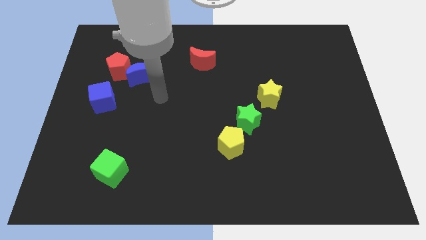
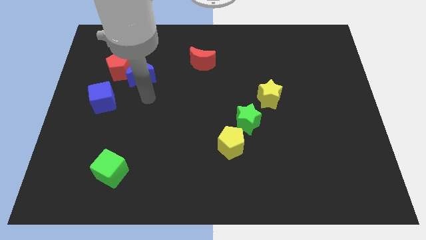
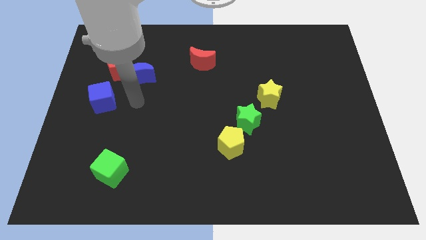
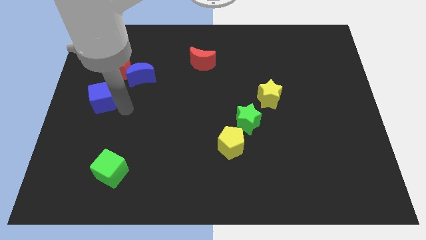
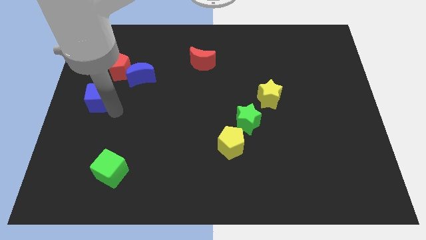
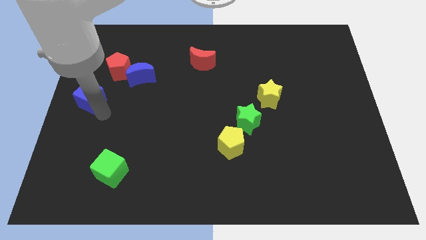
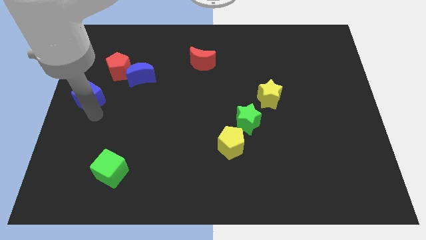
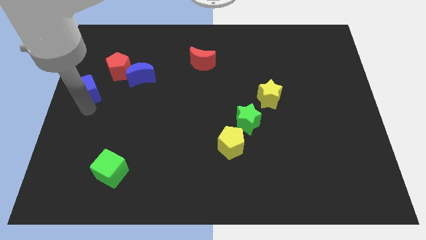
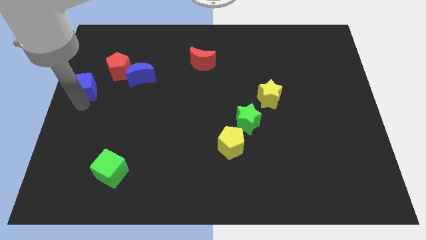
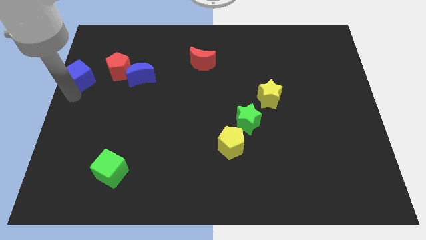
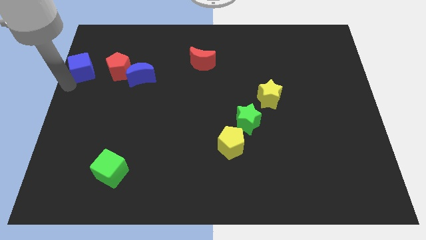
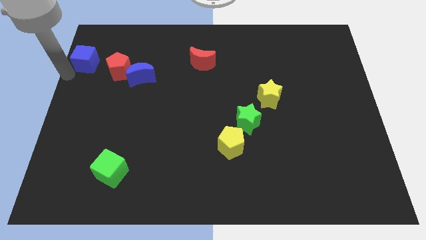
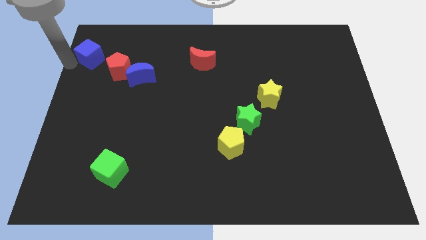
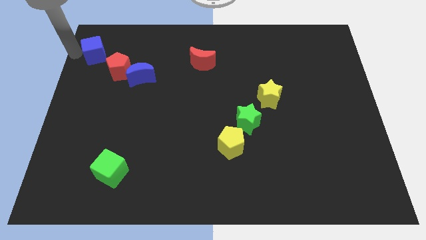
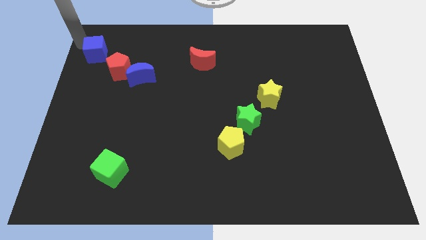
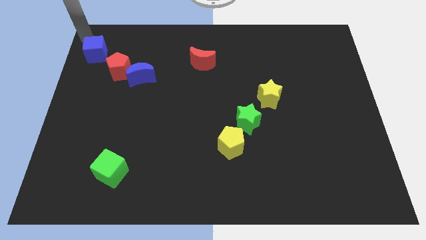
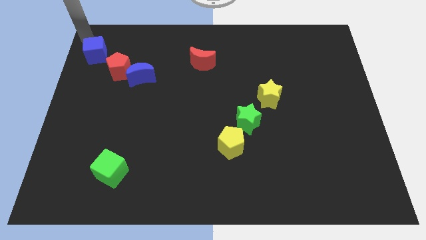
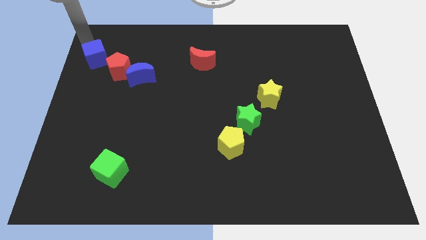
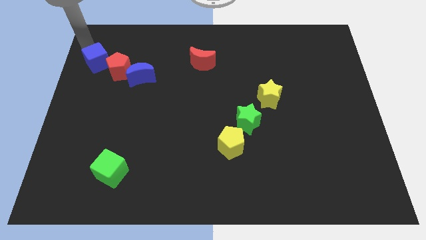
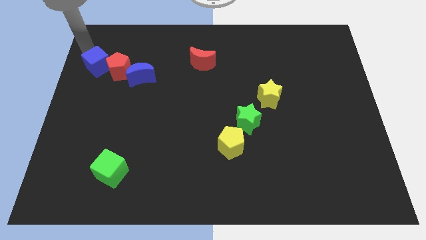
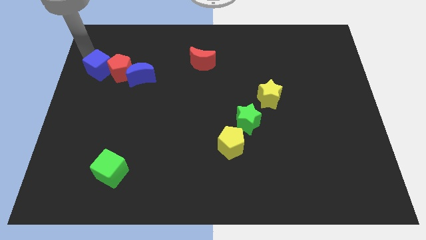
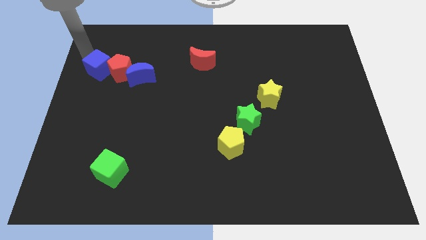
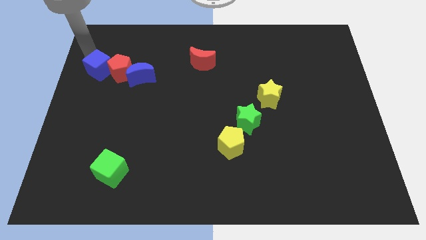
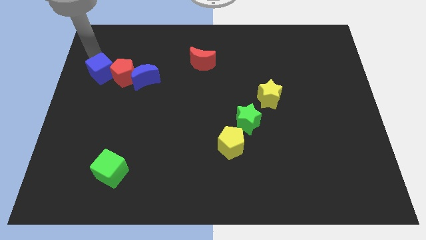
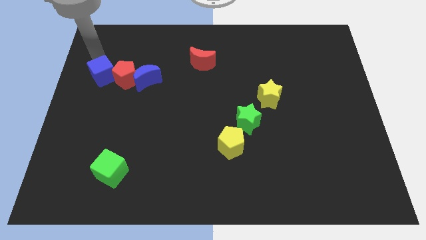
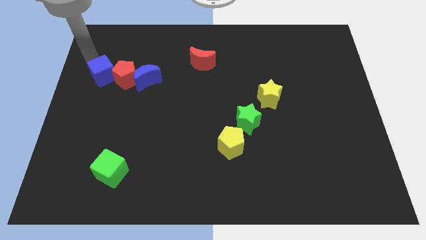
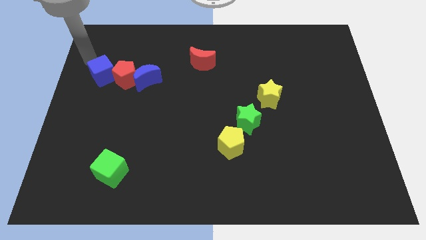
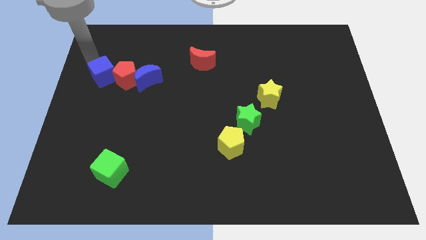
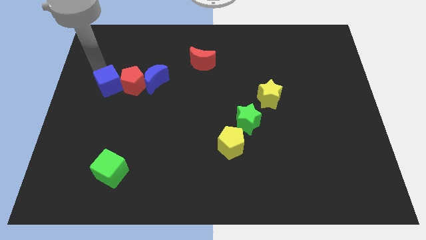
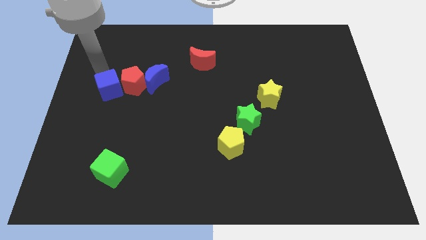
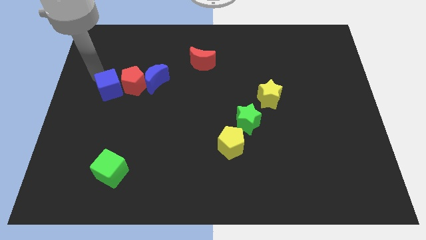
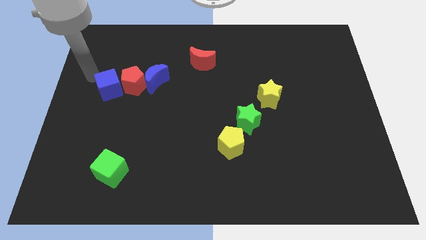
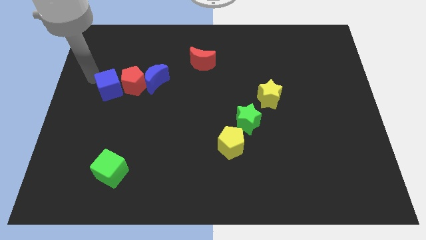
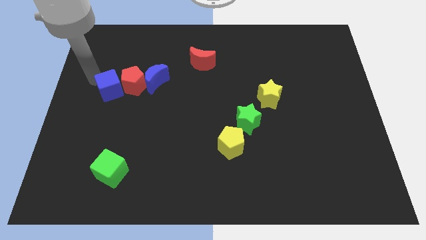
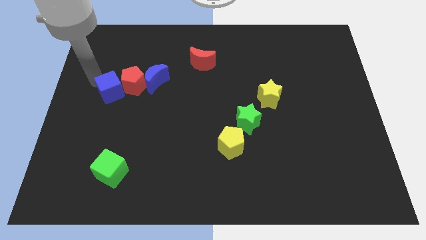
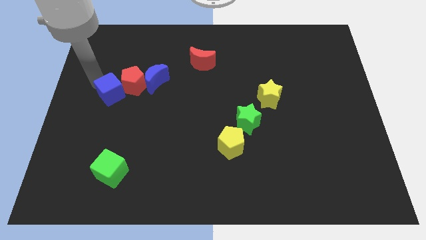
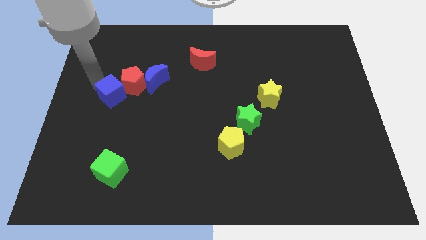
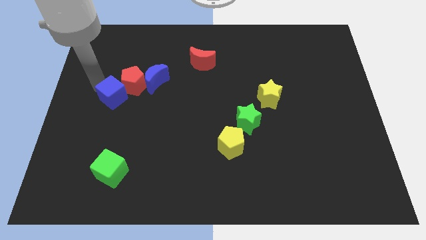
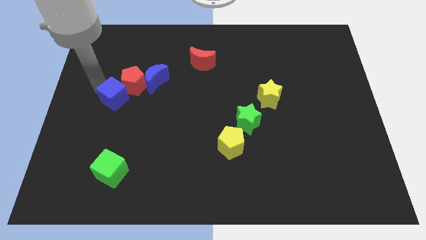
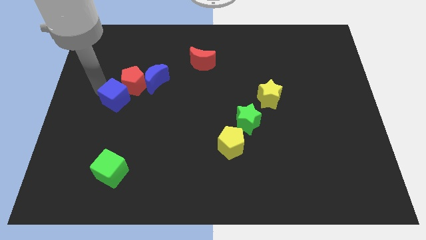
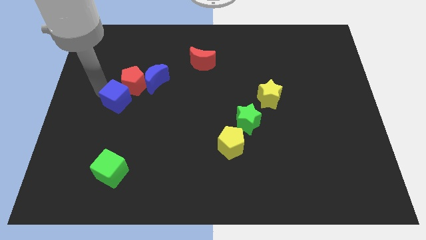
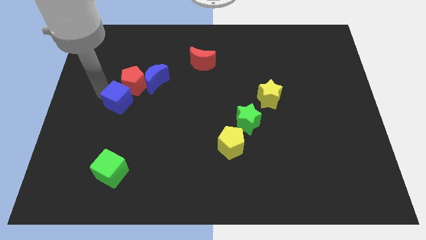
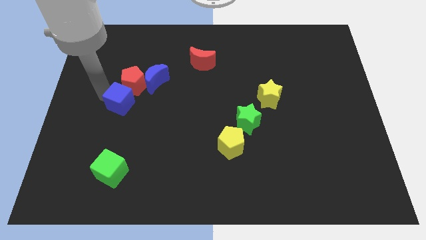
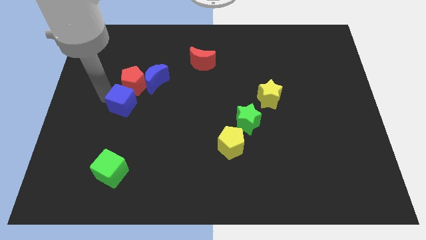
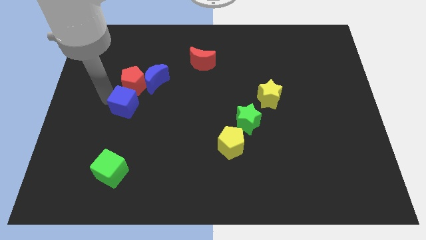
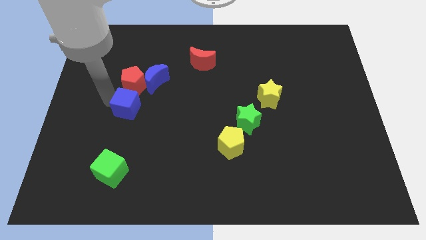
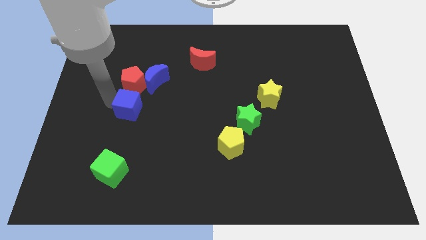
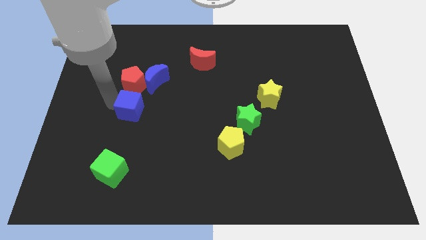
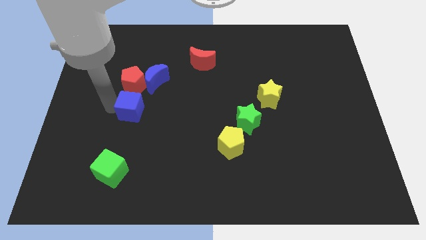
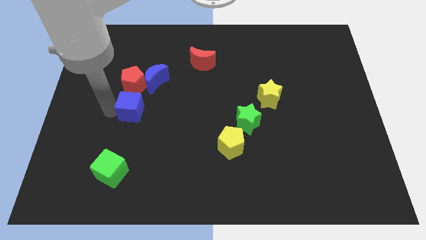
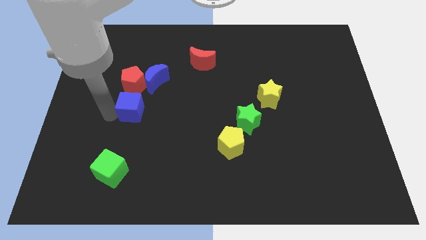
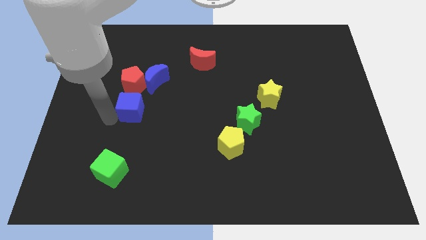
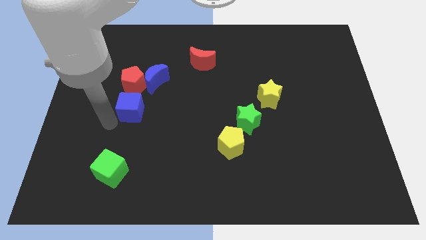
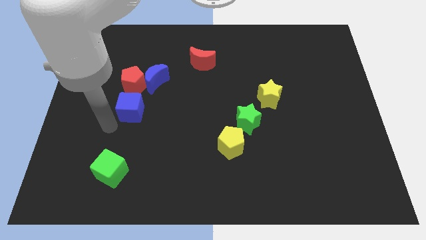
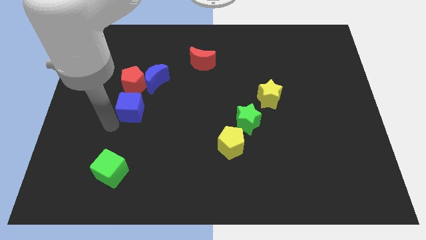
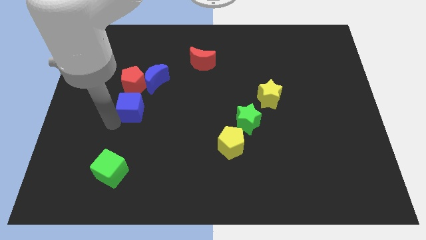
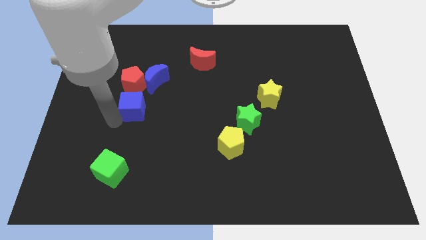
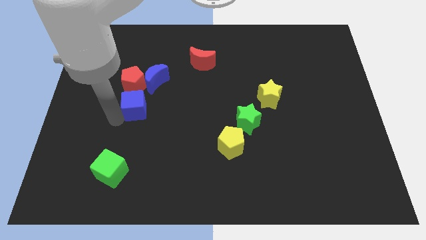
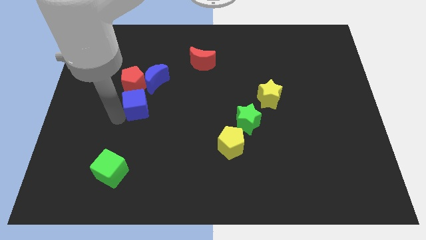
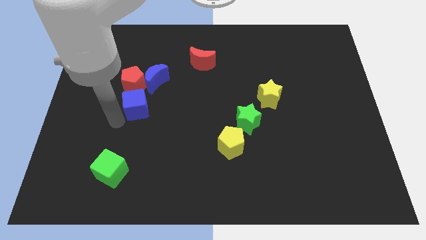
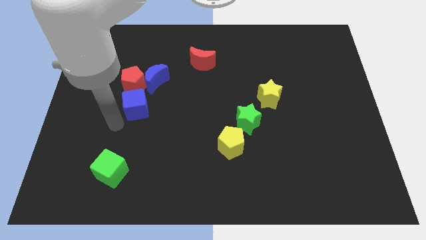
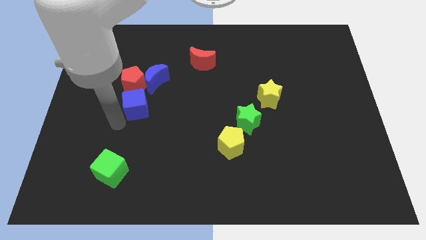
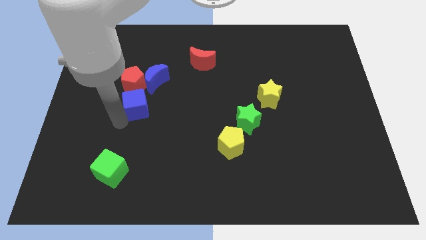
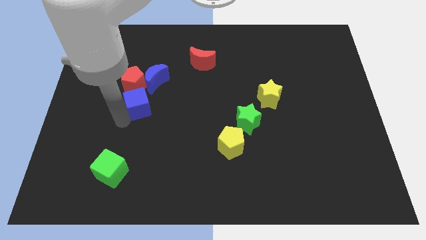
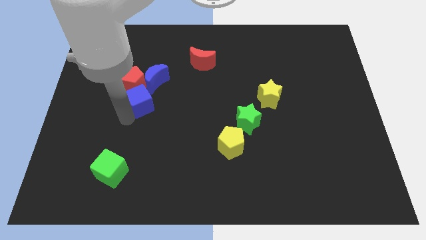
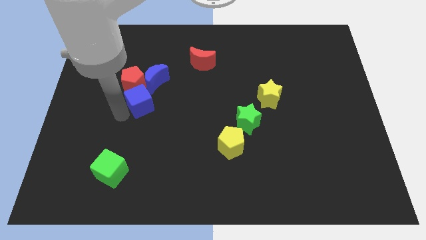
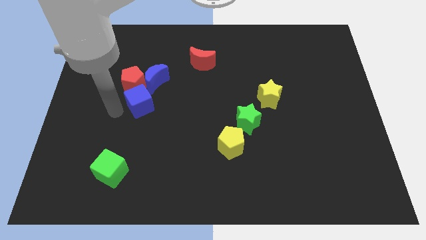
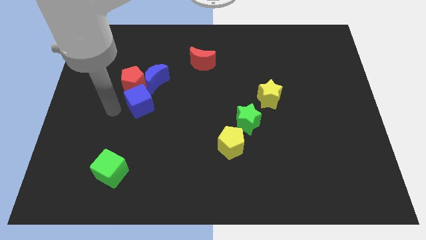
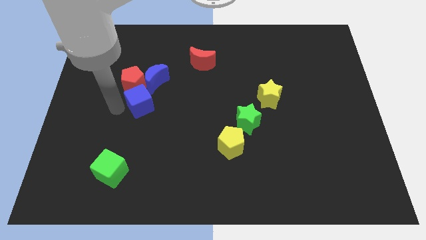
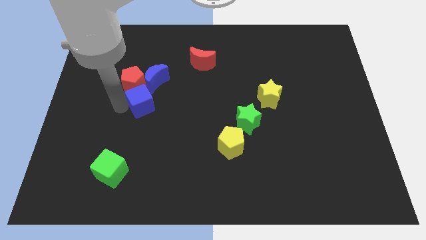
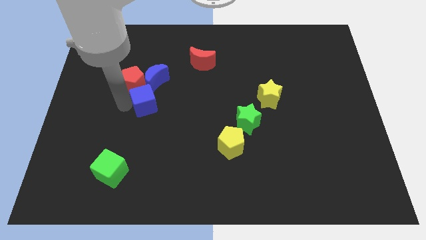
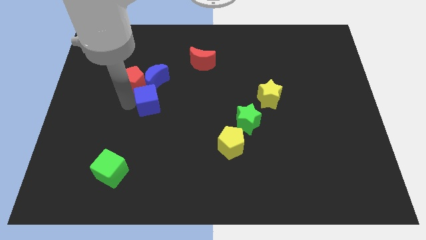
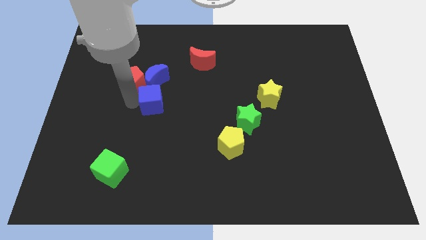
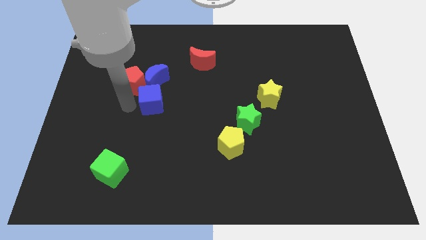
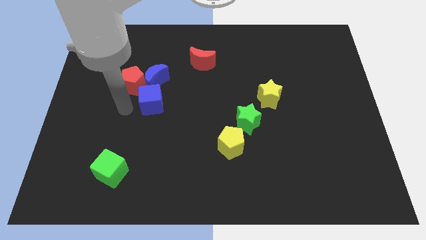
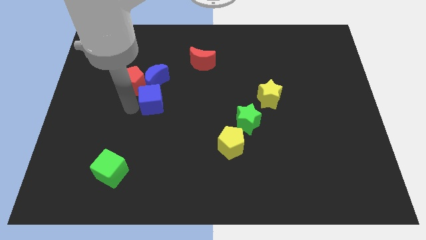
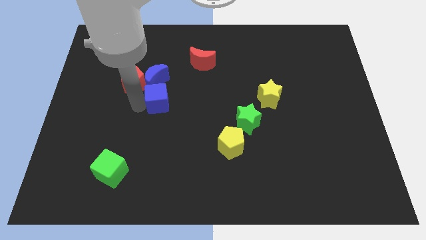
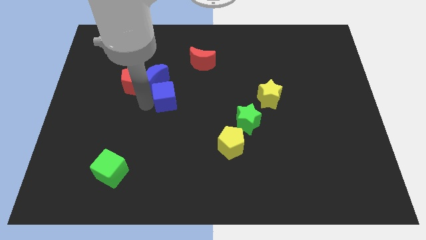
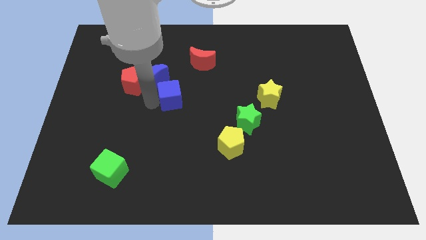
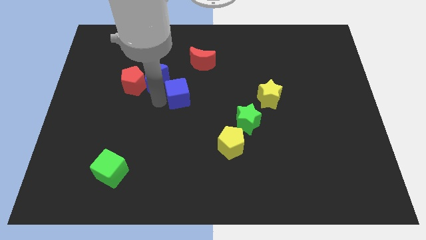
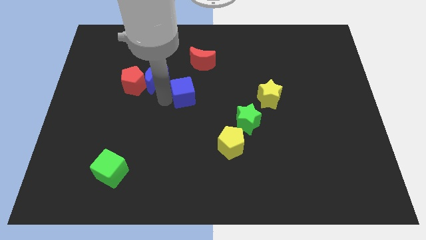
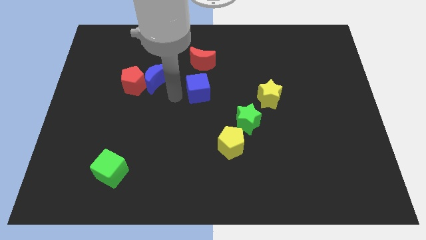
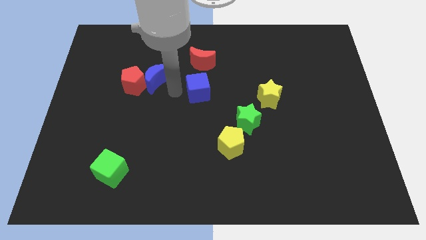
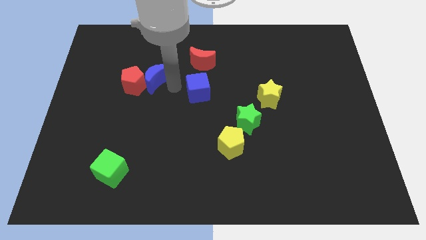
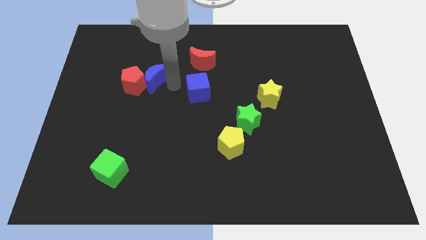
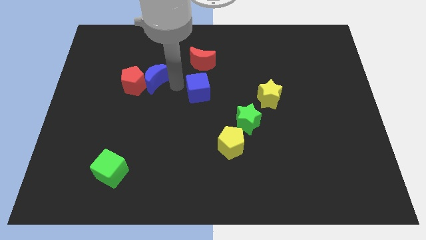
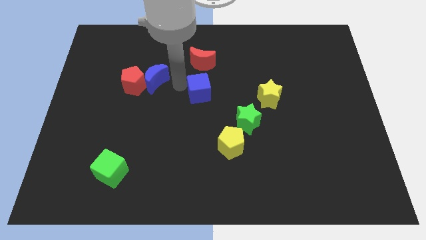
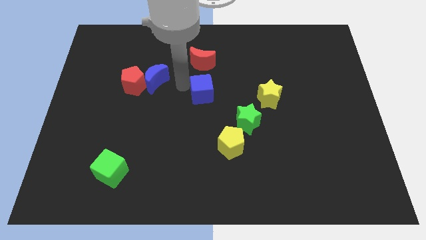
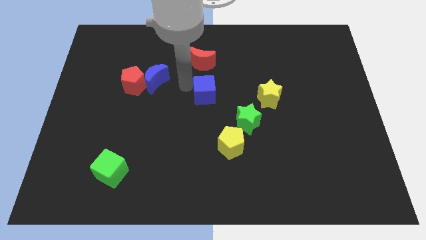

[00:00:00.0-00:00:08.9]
push the blue cube left of the yellow star
